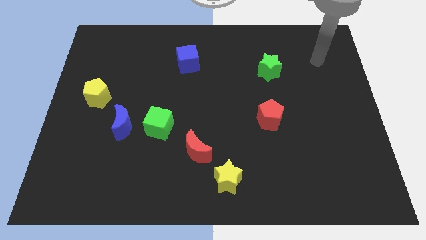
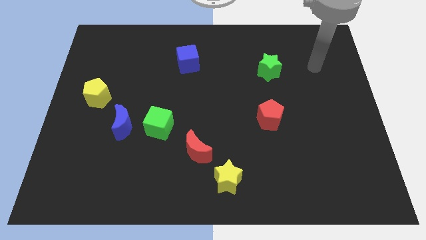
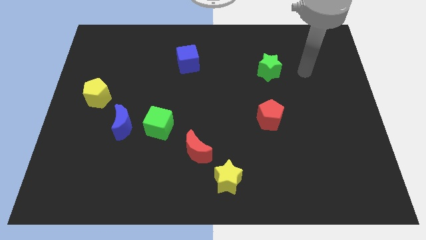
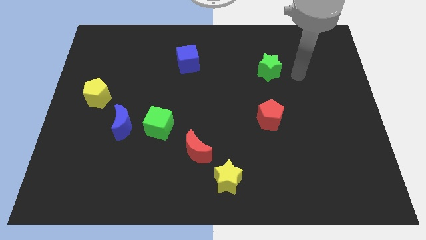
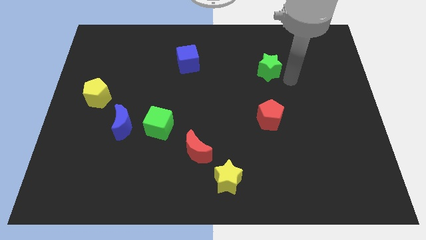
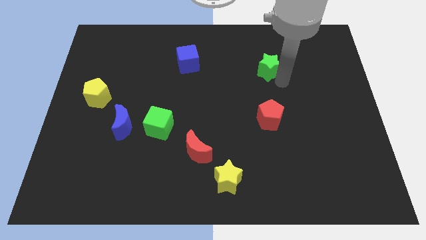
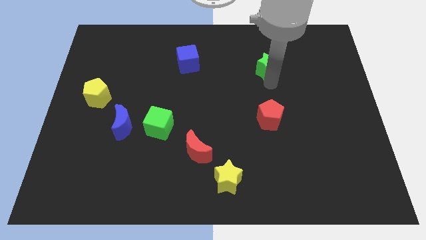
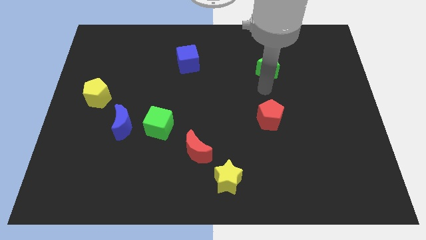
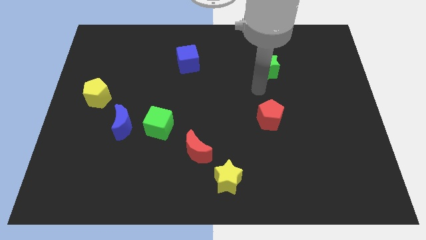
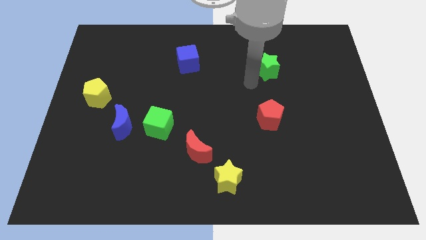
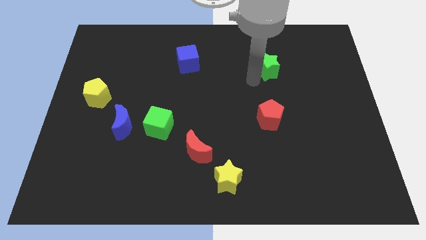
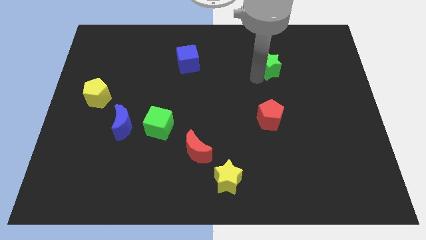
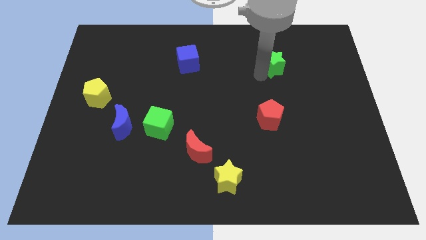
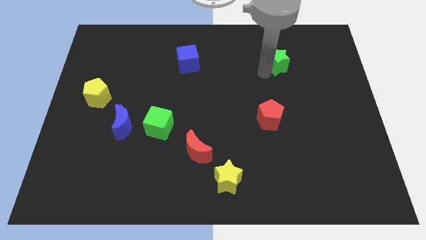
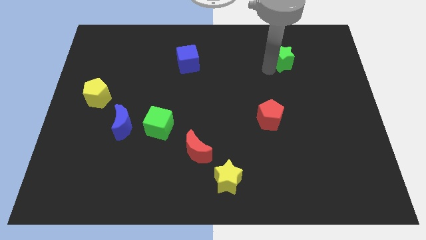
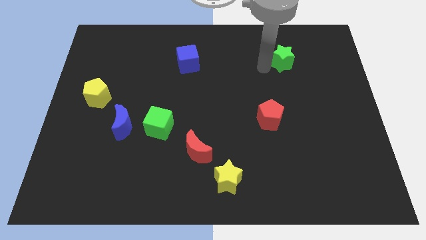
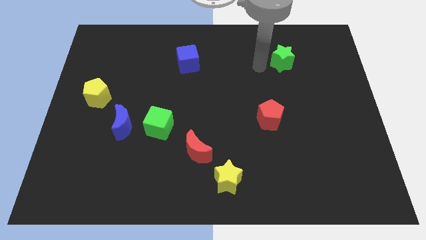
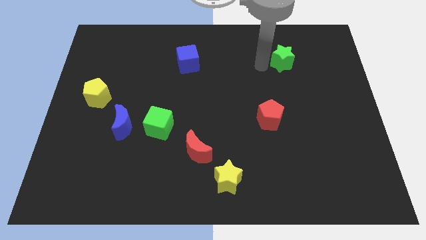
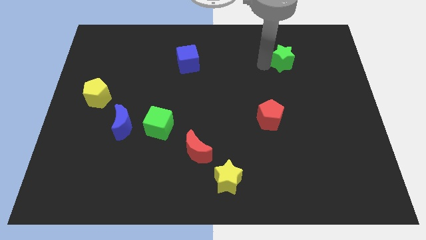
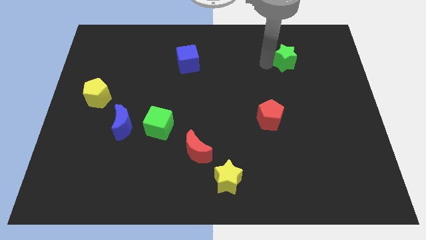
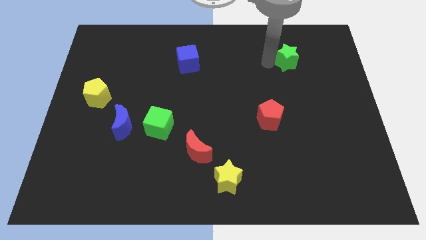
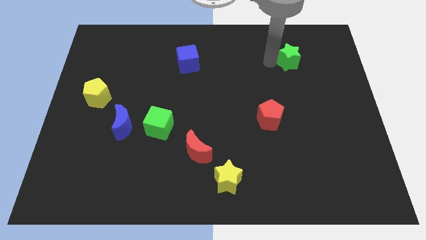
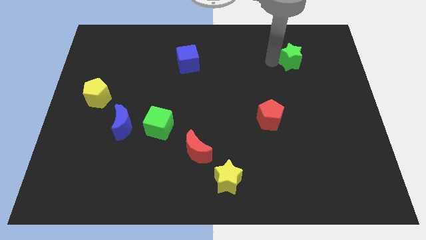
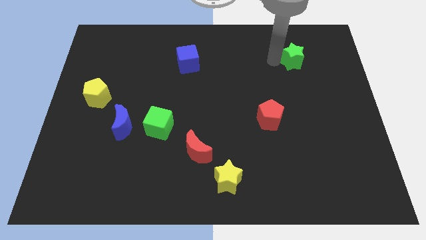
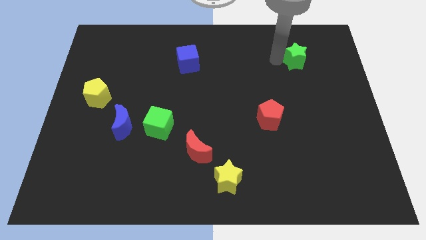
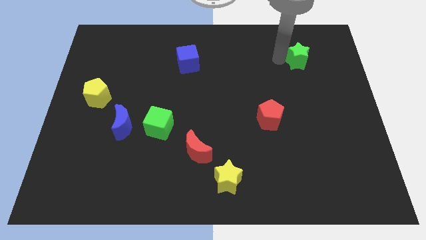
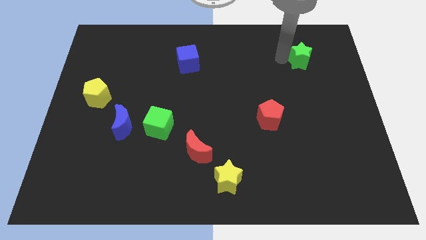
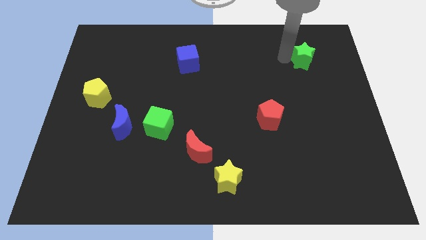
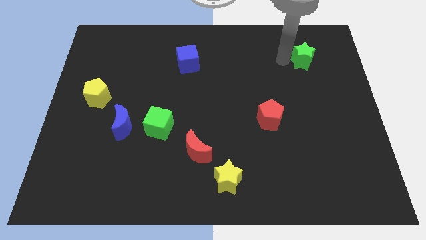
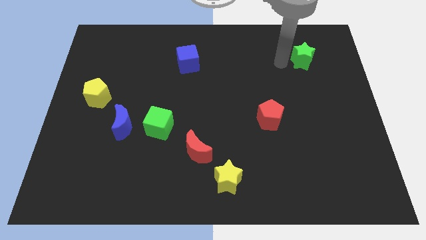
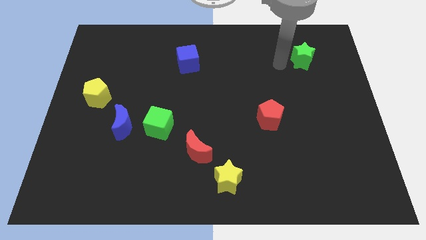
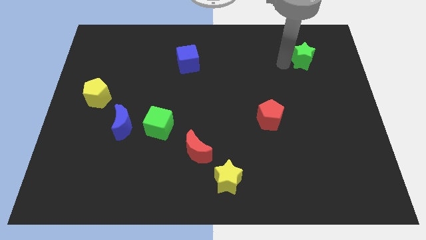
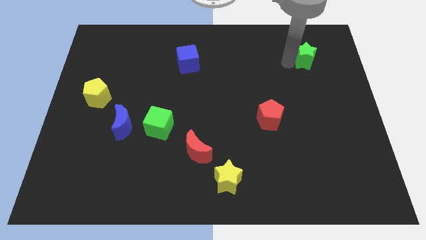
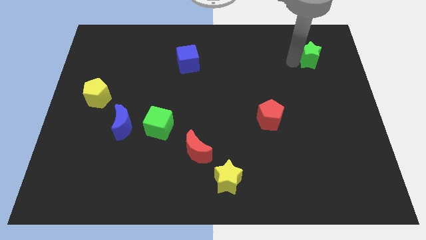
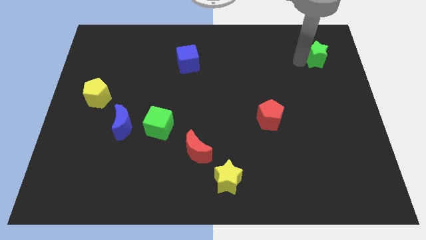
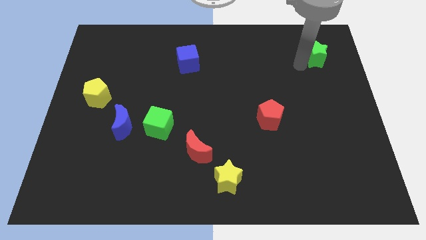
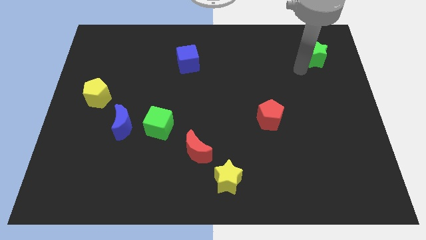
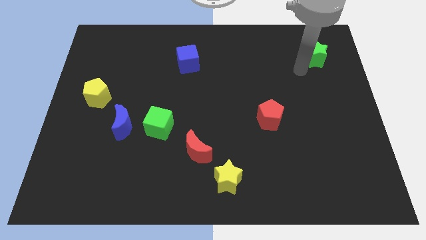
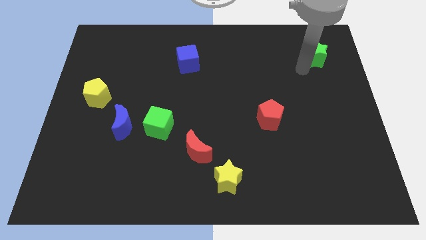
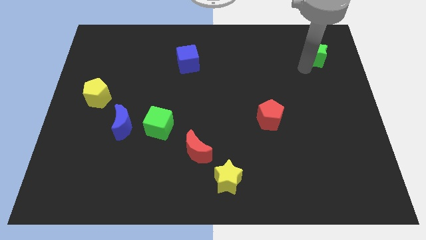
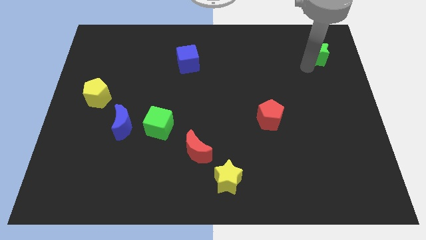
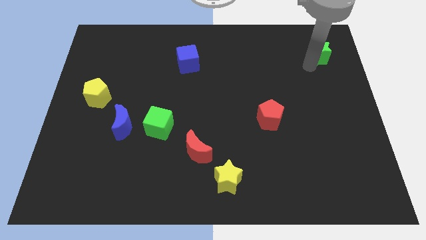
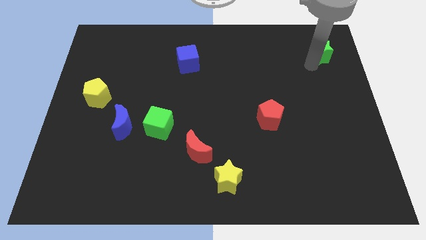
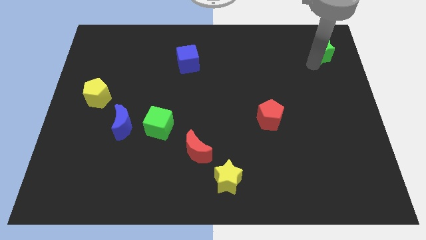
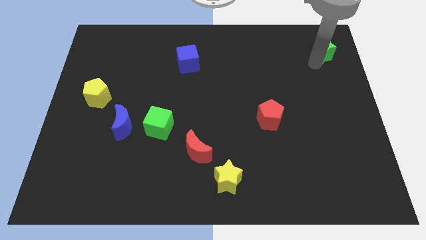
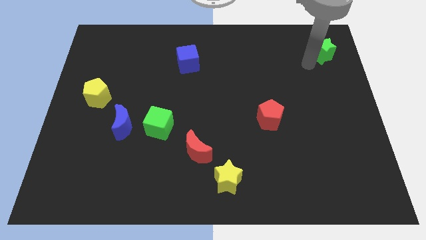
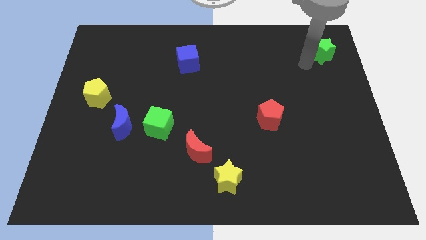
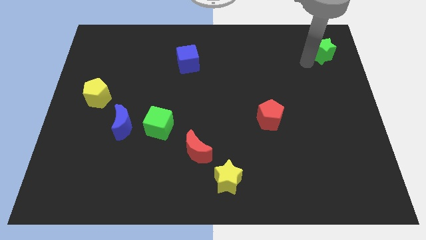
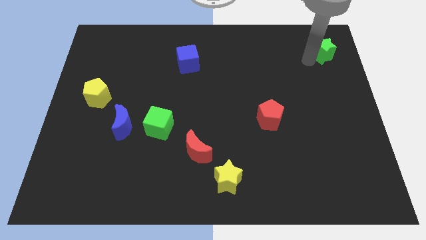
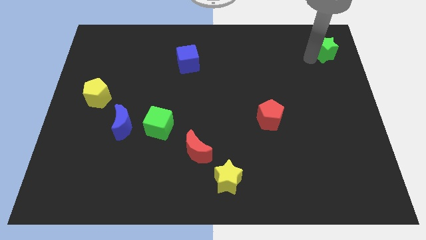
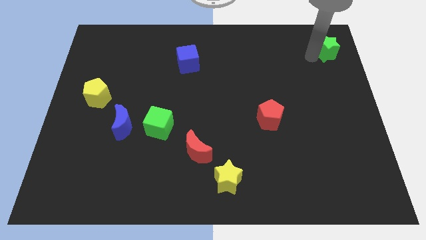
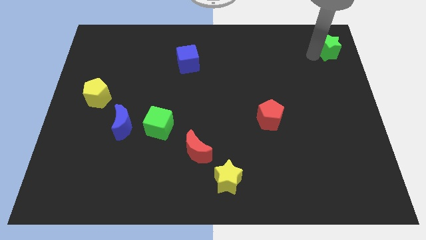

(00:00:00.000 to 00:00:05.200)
move the green star to the upper right corner

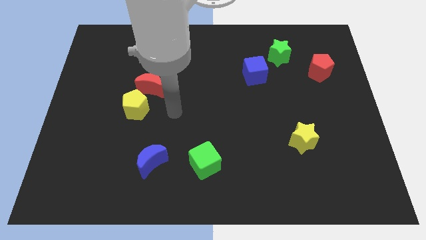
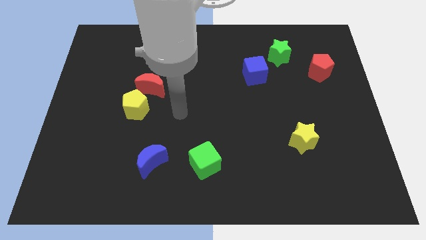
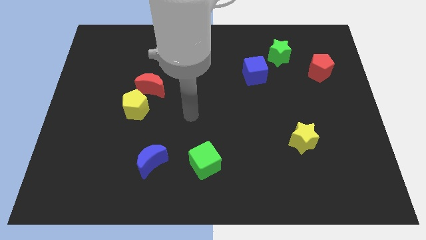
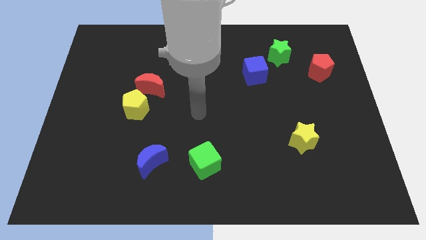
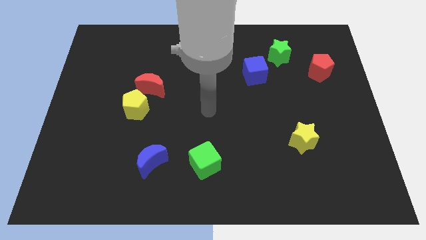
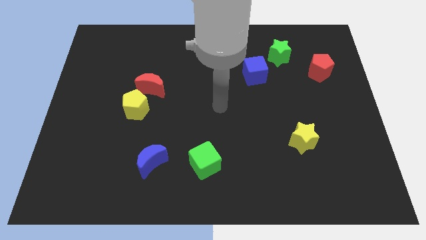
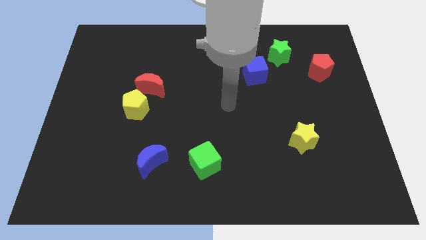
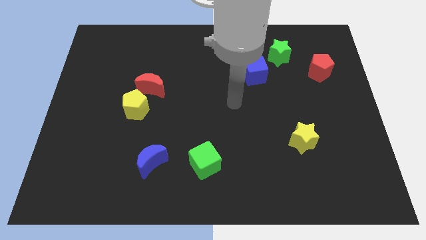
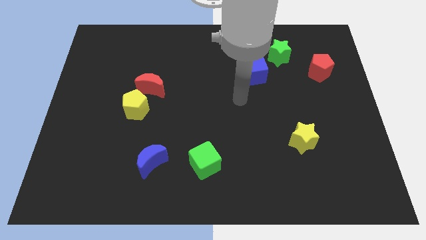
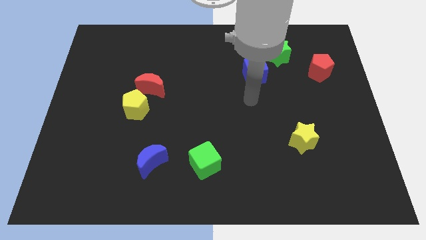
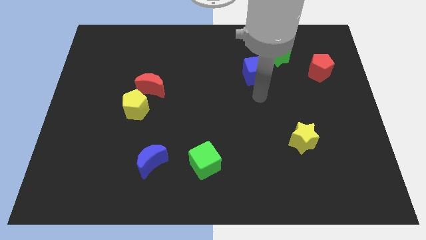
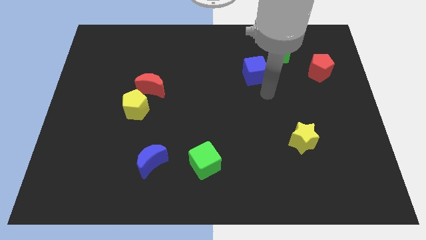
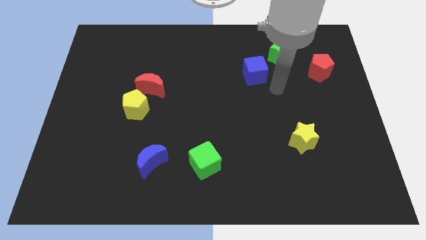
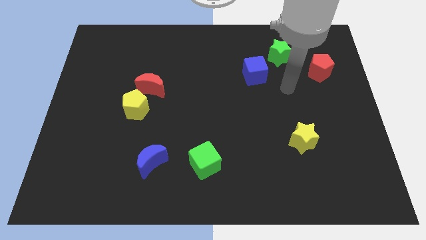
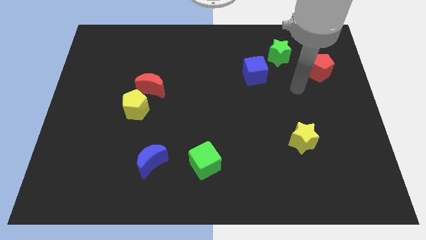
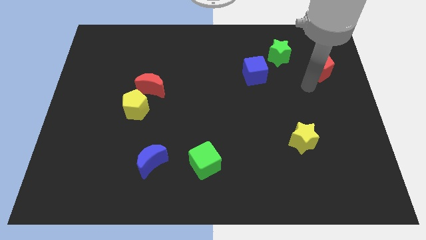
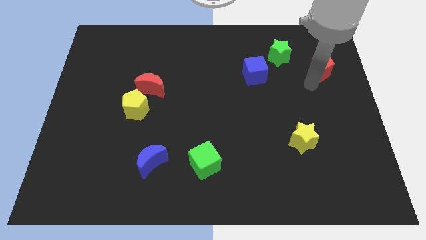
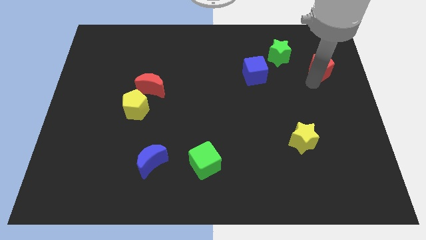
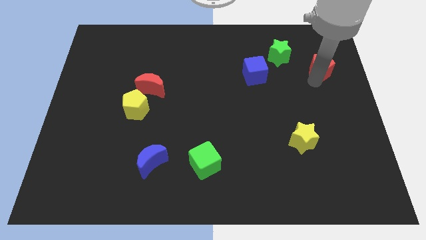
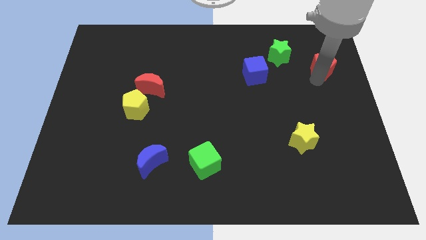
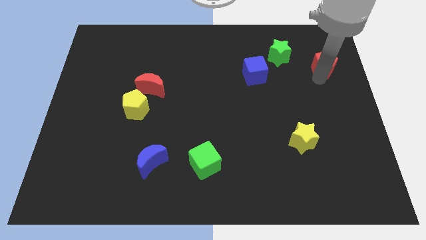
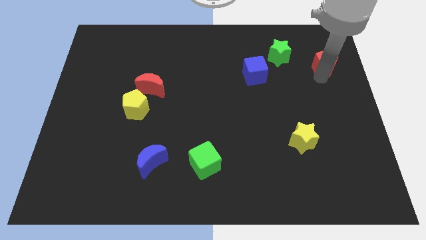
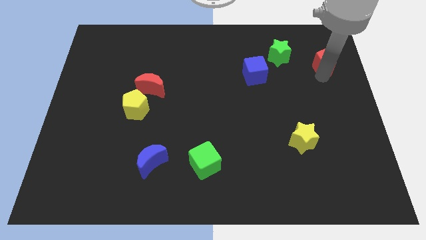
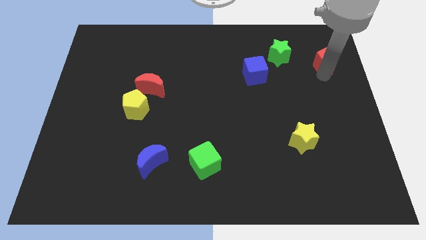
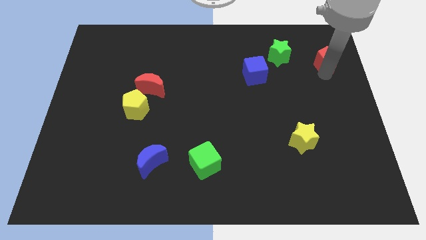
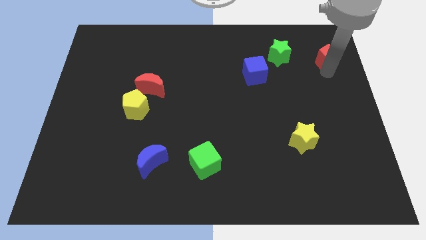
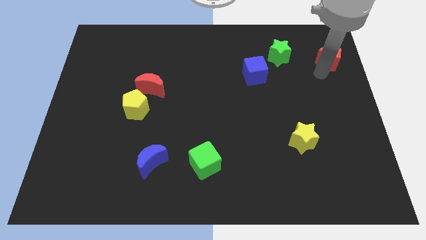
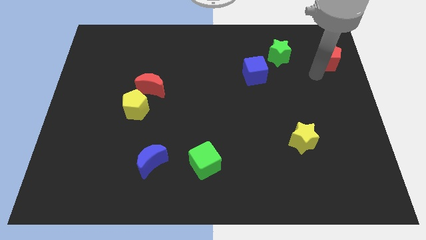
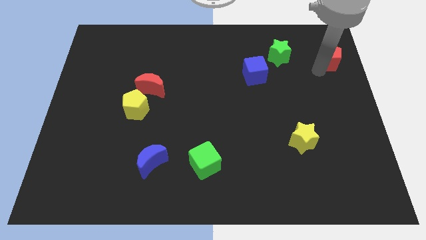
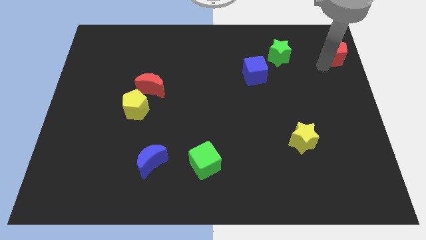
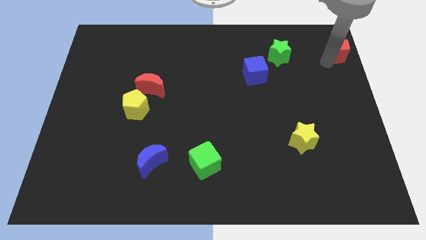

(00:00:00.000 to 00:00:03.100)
push the red pentagon to the top right of the board
